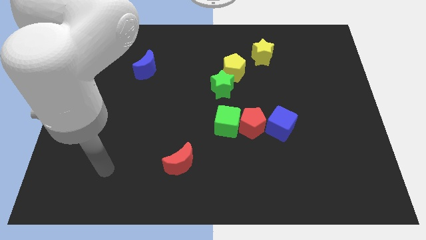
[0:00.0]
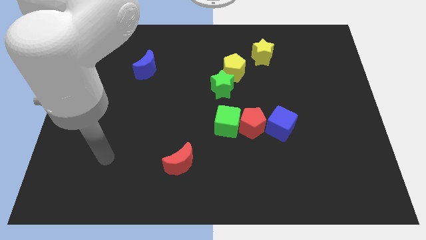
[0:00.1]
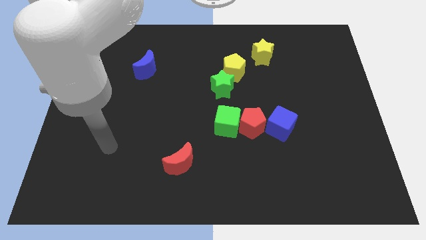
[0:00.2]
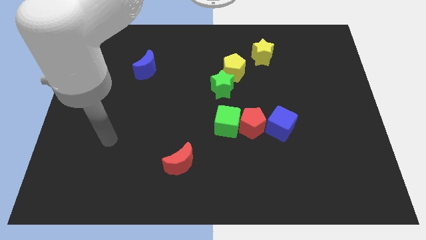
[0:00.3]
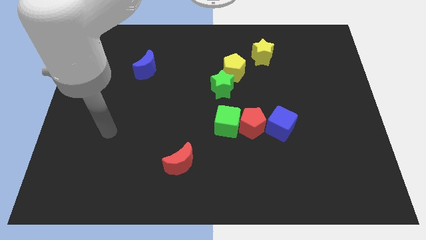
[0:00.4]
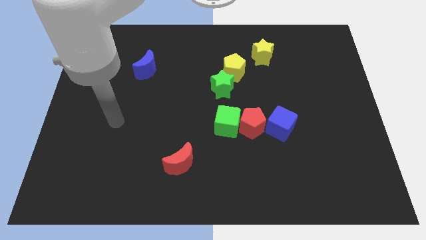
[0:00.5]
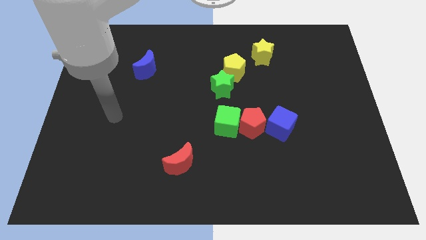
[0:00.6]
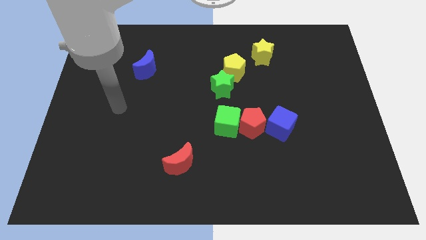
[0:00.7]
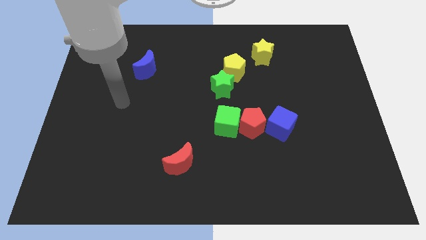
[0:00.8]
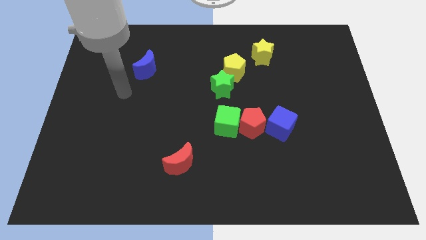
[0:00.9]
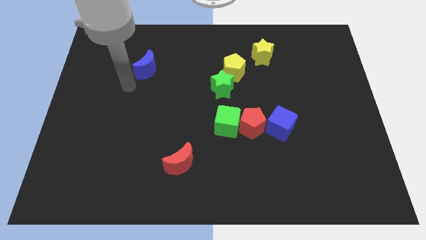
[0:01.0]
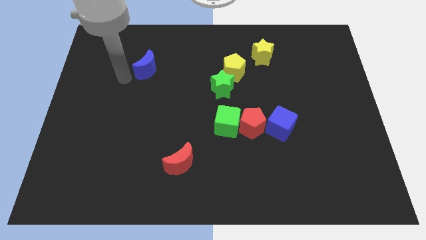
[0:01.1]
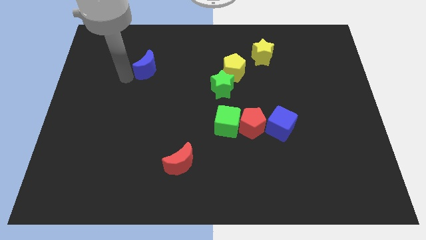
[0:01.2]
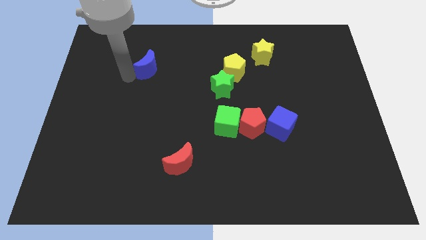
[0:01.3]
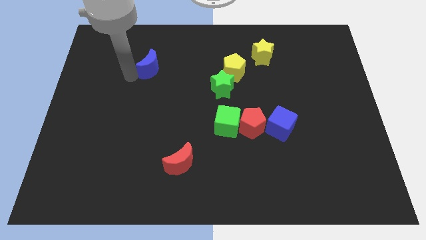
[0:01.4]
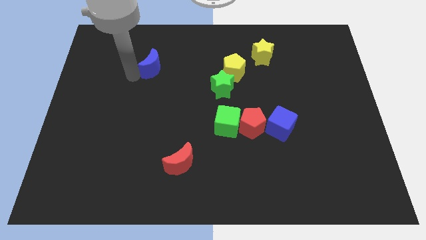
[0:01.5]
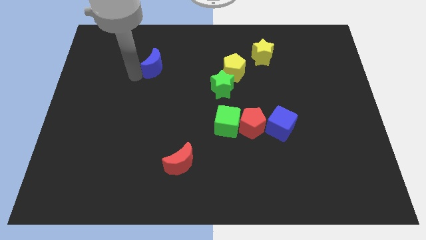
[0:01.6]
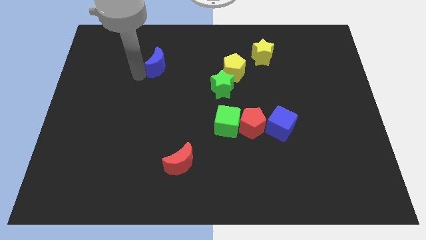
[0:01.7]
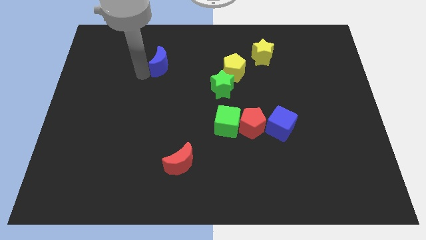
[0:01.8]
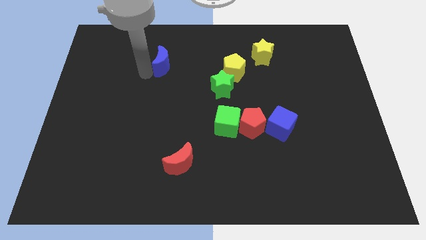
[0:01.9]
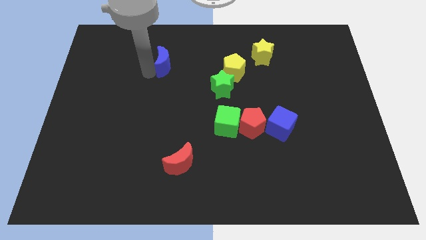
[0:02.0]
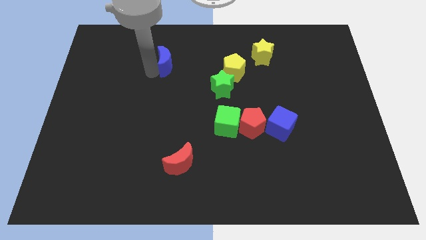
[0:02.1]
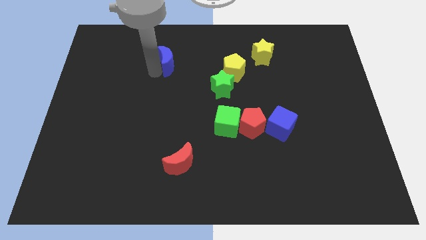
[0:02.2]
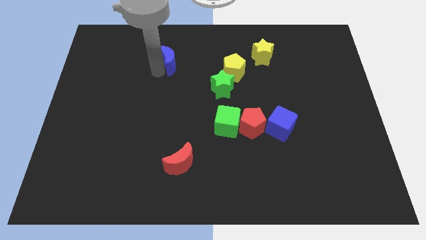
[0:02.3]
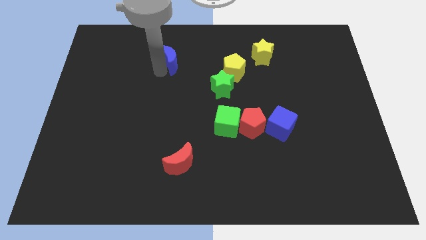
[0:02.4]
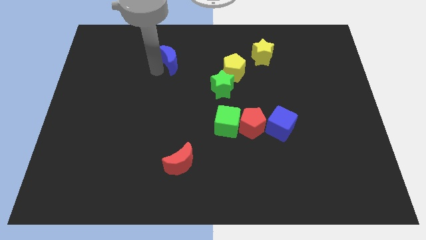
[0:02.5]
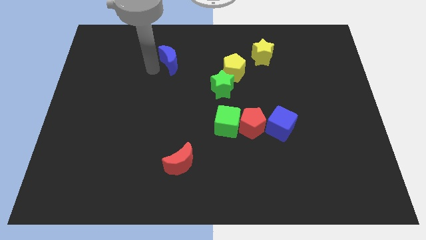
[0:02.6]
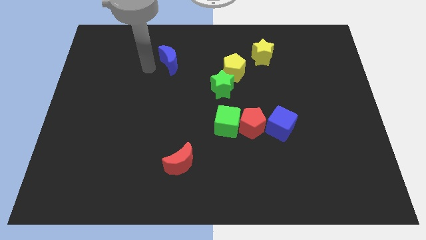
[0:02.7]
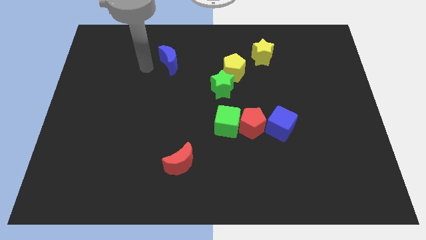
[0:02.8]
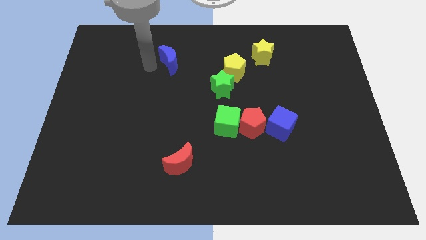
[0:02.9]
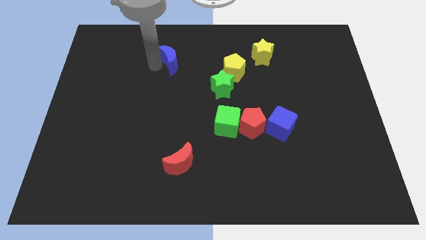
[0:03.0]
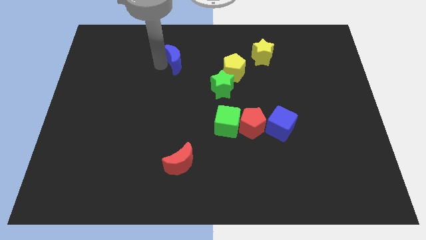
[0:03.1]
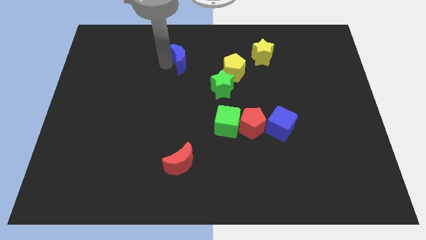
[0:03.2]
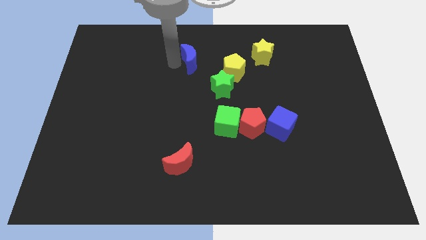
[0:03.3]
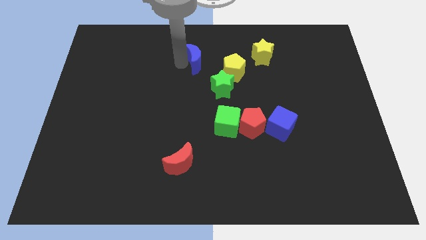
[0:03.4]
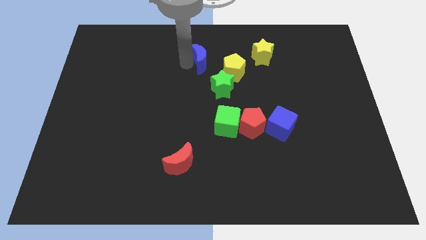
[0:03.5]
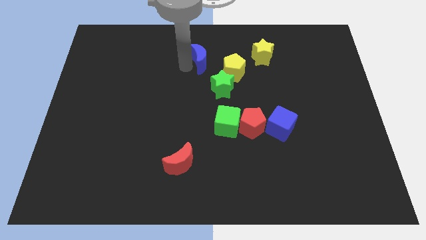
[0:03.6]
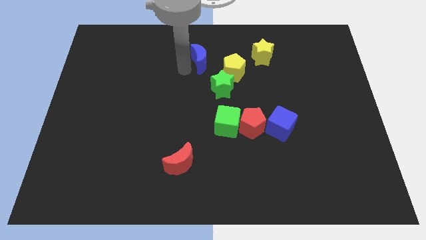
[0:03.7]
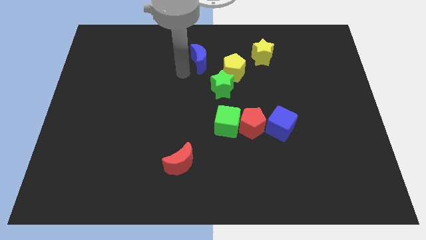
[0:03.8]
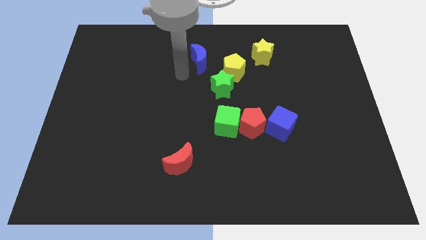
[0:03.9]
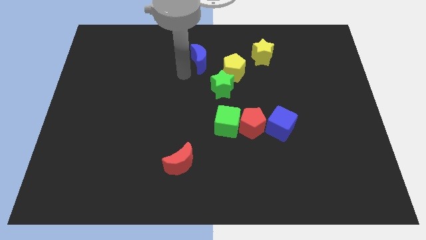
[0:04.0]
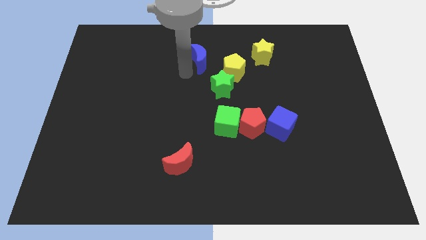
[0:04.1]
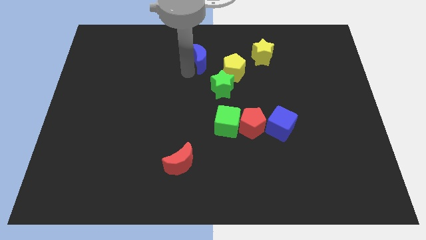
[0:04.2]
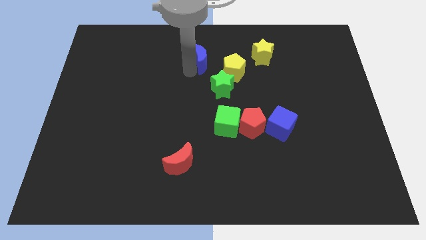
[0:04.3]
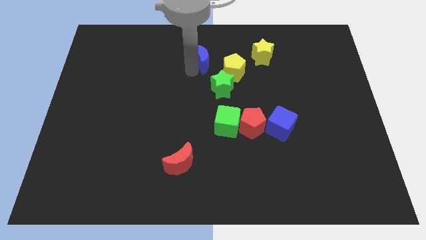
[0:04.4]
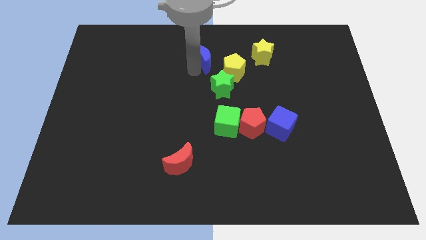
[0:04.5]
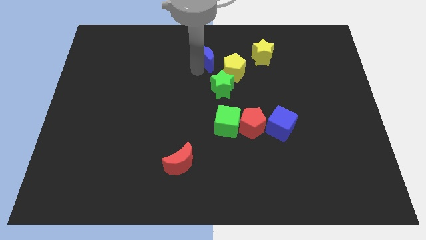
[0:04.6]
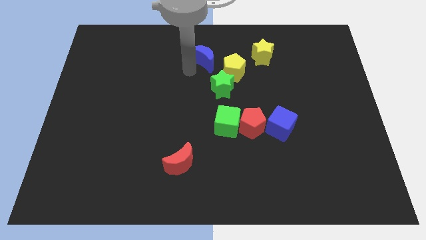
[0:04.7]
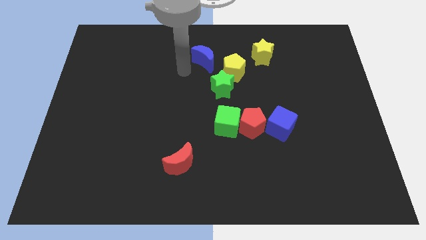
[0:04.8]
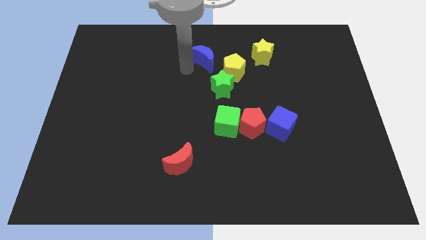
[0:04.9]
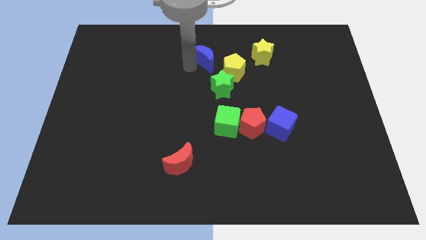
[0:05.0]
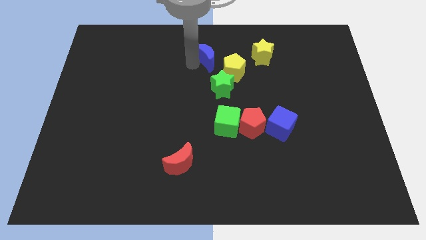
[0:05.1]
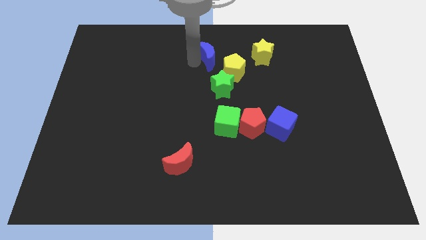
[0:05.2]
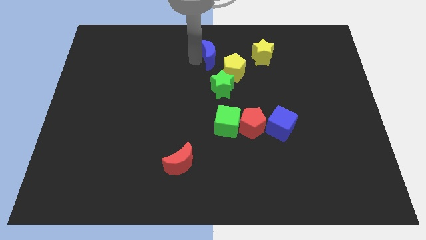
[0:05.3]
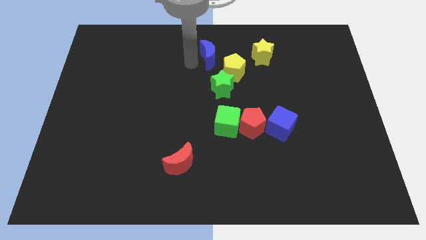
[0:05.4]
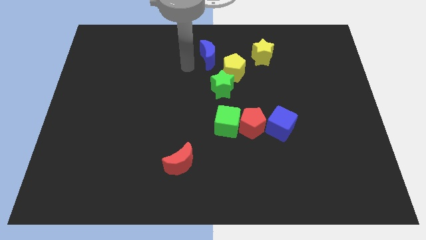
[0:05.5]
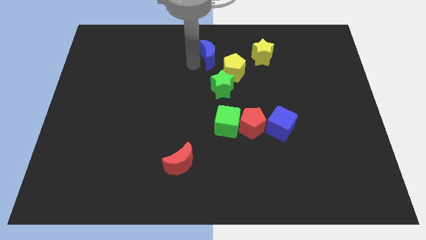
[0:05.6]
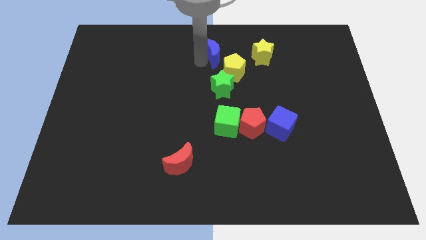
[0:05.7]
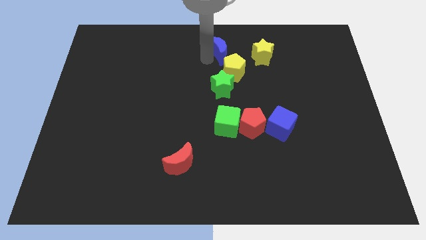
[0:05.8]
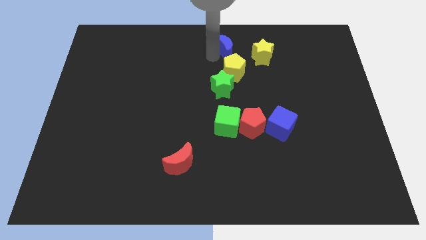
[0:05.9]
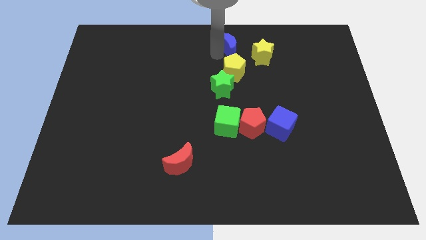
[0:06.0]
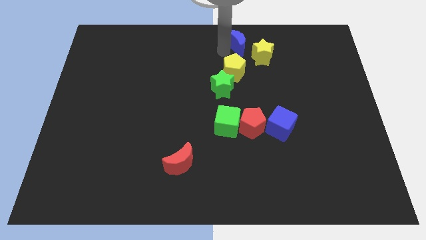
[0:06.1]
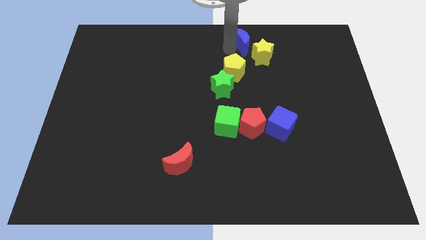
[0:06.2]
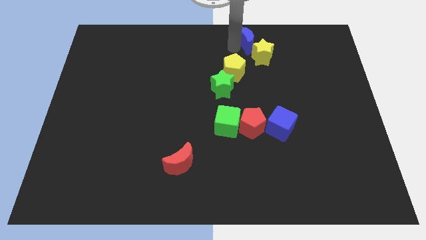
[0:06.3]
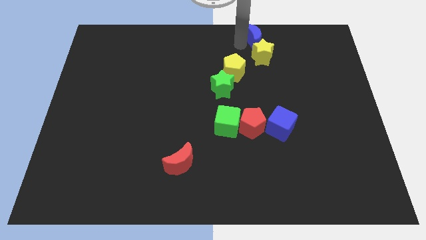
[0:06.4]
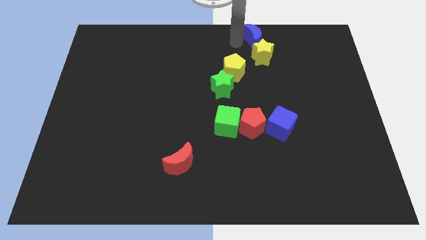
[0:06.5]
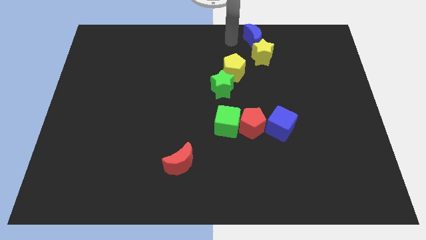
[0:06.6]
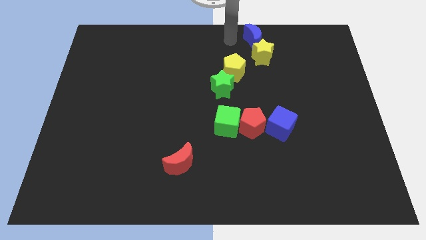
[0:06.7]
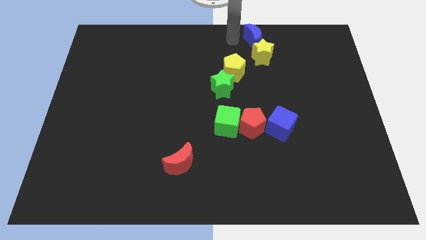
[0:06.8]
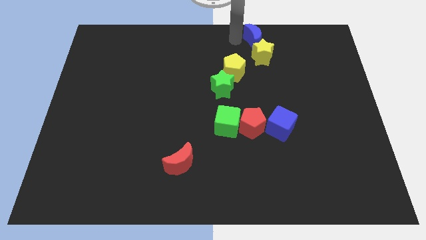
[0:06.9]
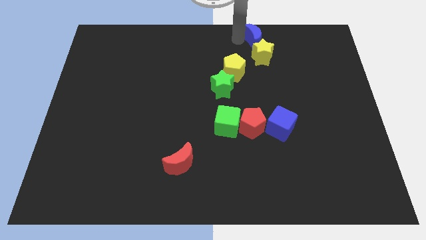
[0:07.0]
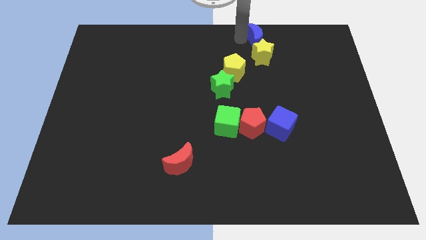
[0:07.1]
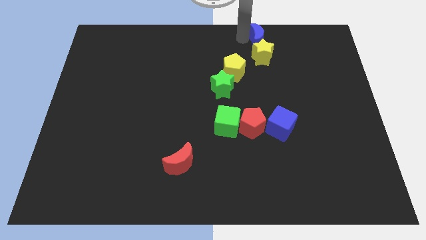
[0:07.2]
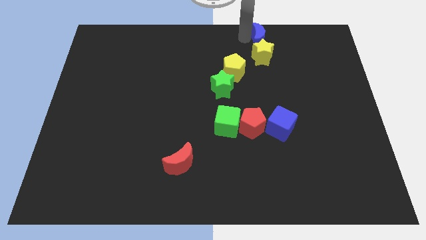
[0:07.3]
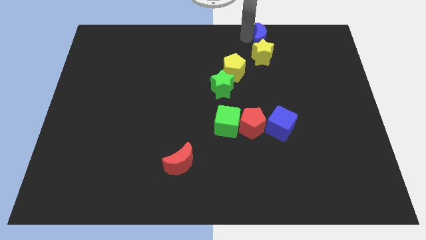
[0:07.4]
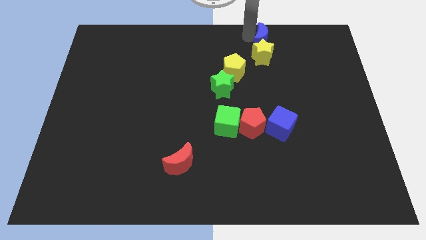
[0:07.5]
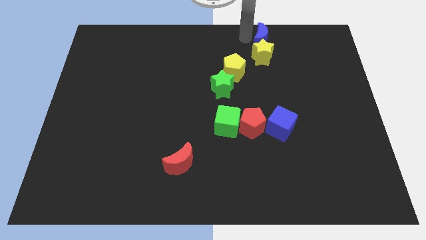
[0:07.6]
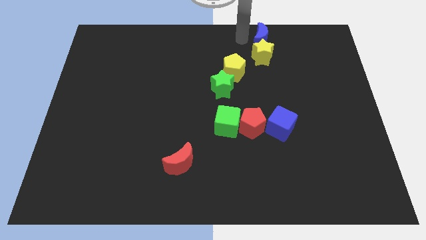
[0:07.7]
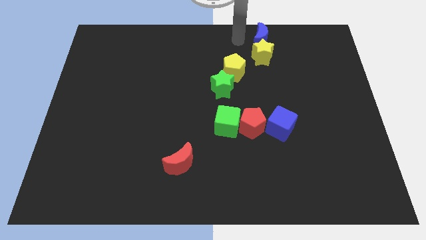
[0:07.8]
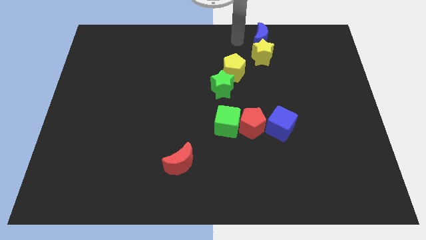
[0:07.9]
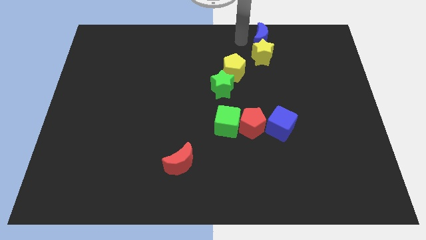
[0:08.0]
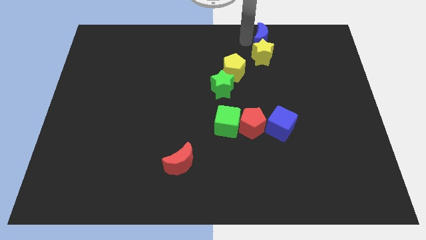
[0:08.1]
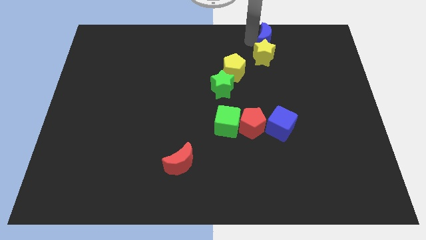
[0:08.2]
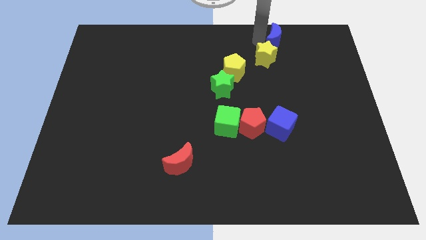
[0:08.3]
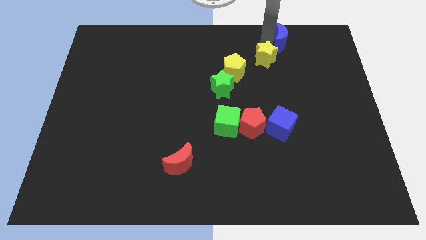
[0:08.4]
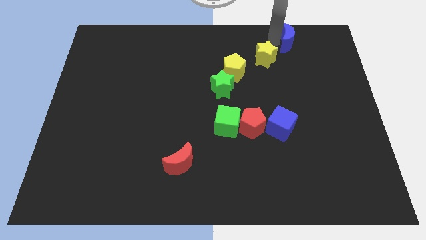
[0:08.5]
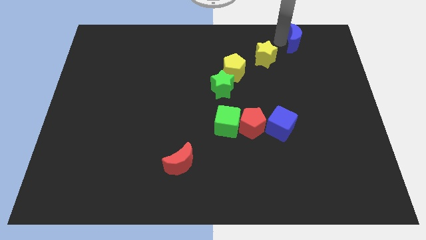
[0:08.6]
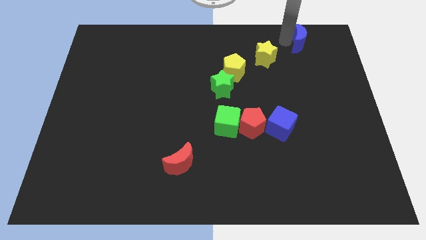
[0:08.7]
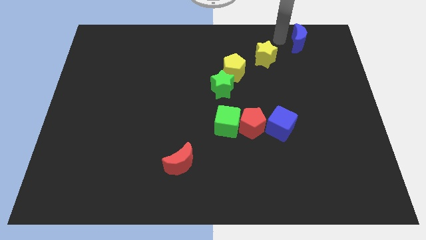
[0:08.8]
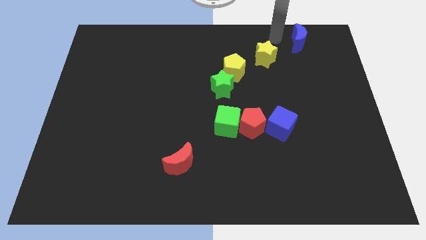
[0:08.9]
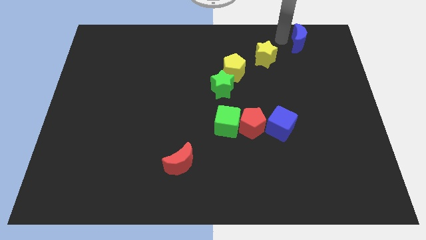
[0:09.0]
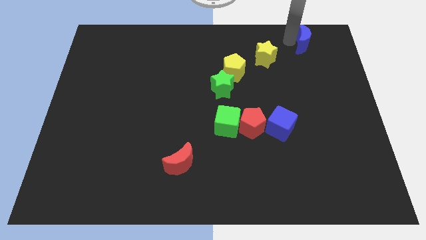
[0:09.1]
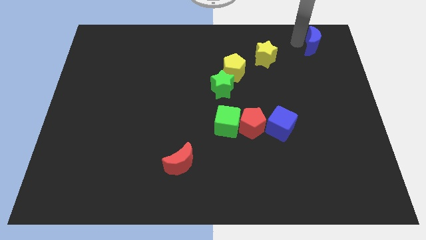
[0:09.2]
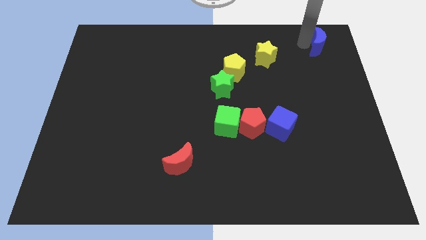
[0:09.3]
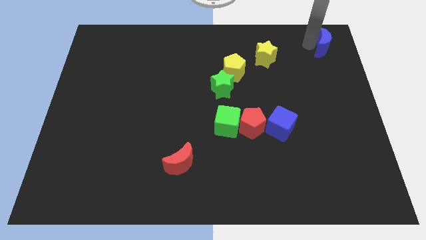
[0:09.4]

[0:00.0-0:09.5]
slide the blue moon to the top right
